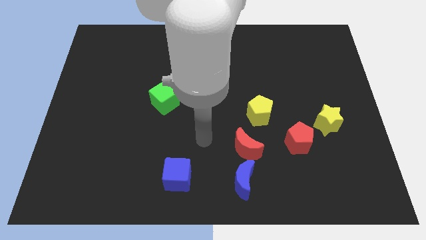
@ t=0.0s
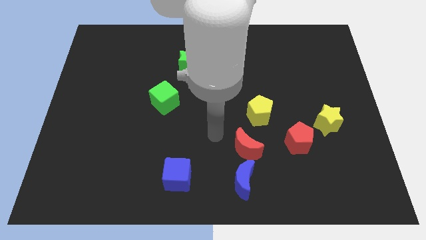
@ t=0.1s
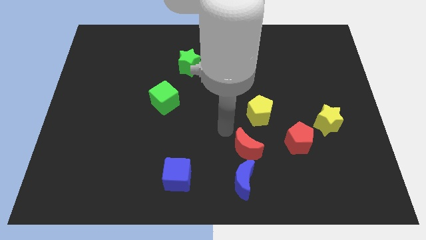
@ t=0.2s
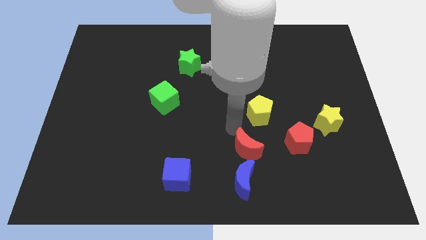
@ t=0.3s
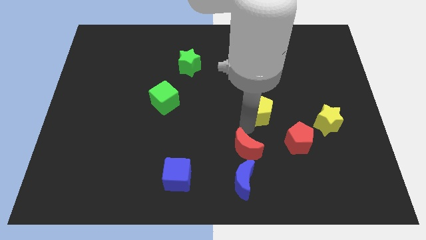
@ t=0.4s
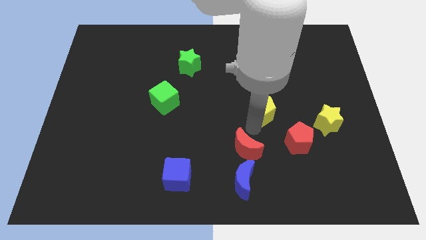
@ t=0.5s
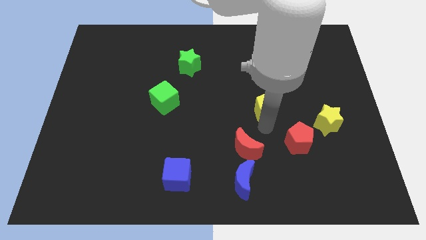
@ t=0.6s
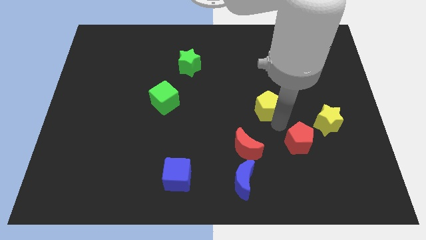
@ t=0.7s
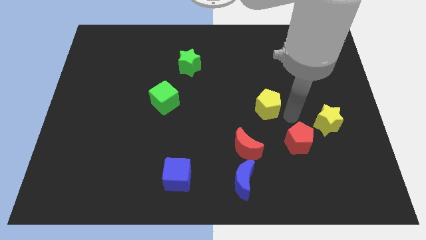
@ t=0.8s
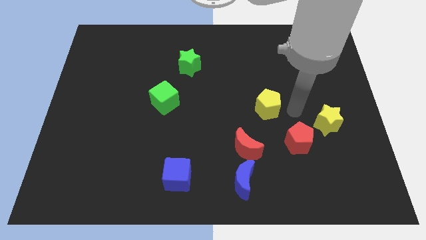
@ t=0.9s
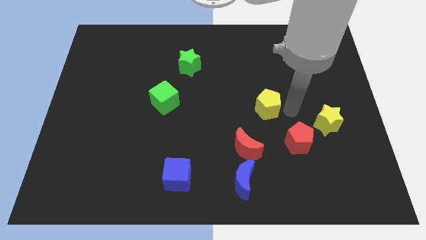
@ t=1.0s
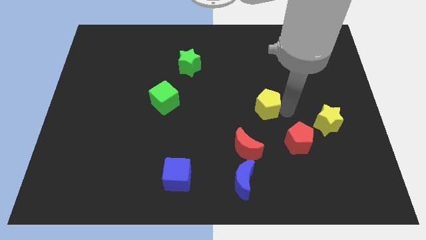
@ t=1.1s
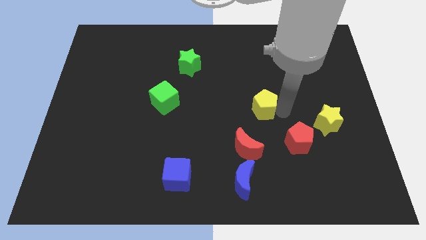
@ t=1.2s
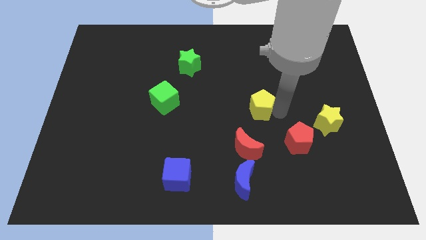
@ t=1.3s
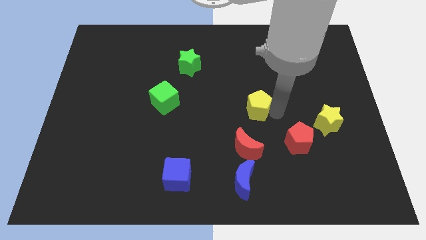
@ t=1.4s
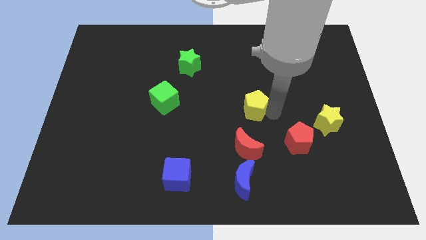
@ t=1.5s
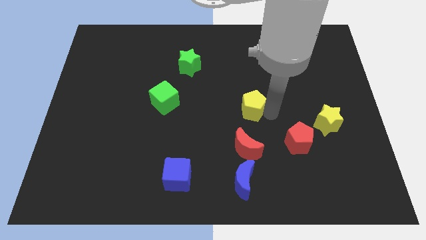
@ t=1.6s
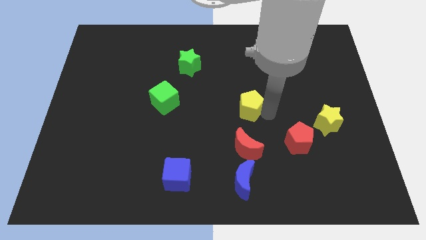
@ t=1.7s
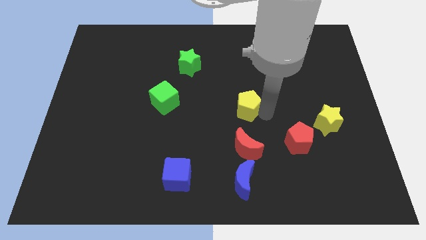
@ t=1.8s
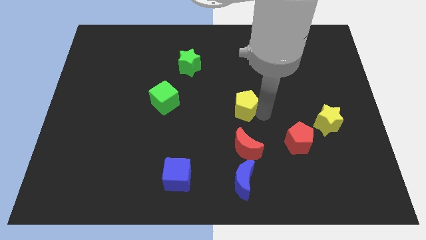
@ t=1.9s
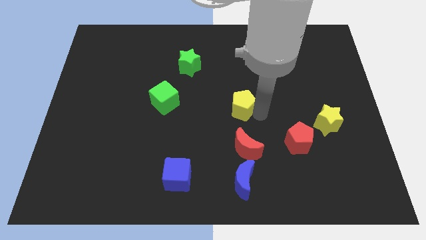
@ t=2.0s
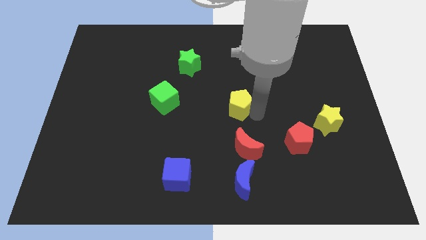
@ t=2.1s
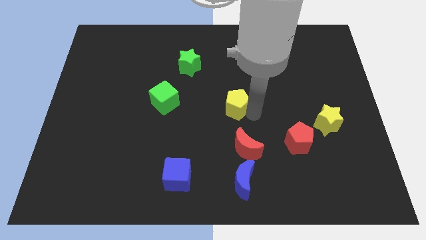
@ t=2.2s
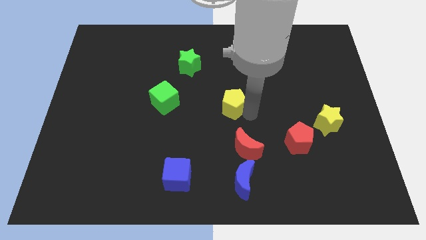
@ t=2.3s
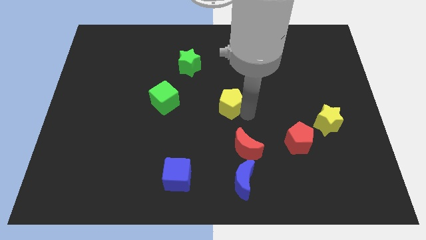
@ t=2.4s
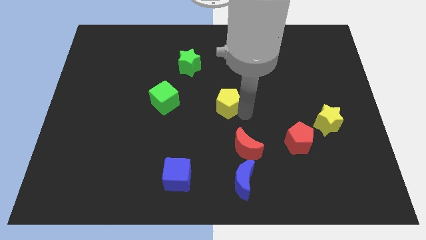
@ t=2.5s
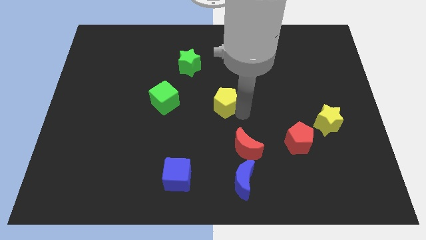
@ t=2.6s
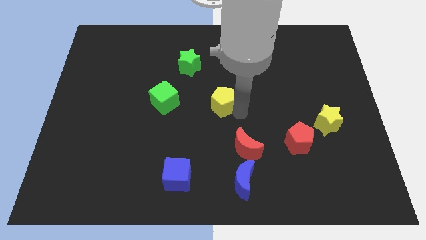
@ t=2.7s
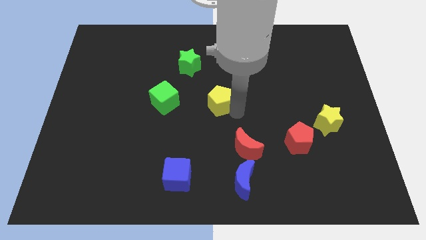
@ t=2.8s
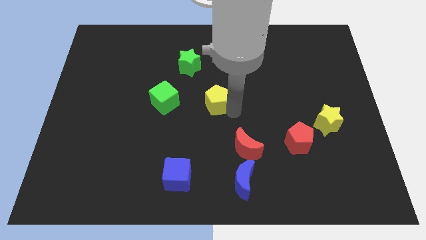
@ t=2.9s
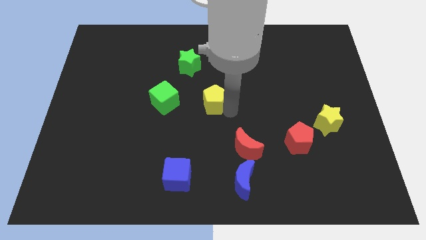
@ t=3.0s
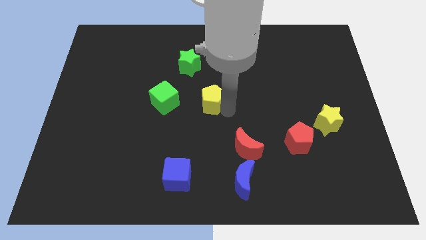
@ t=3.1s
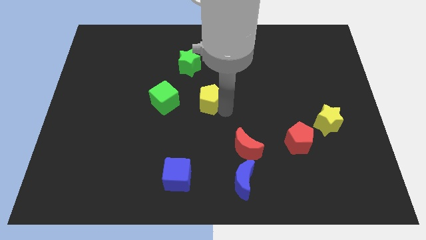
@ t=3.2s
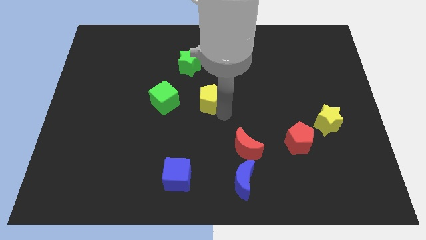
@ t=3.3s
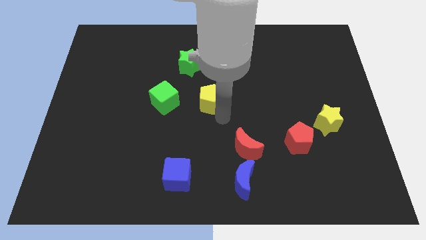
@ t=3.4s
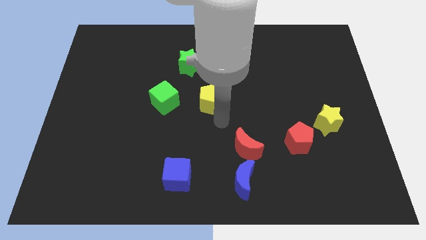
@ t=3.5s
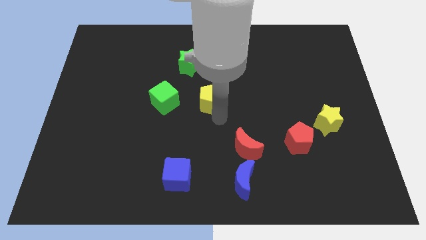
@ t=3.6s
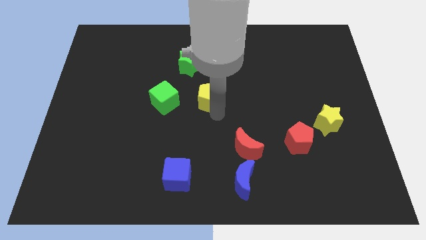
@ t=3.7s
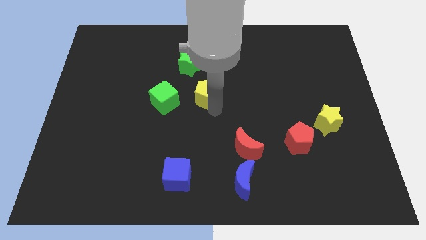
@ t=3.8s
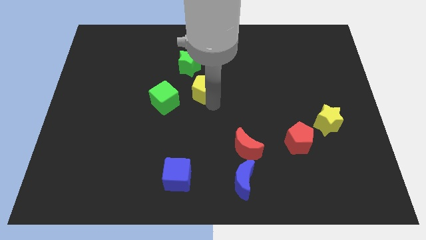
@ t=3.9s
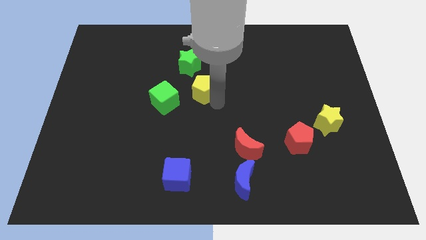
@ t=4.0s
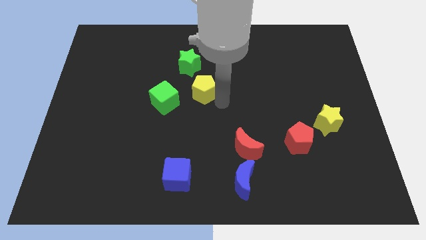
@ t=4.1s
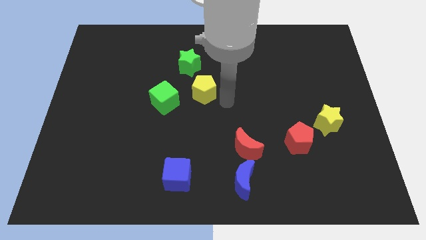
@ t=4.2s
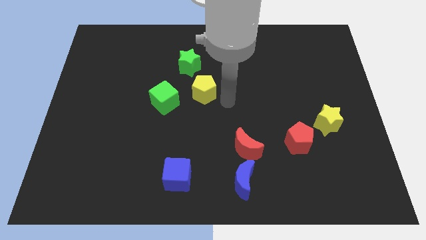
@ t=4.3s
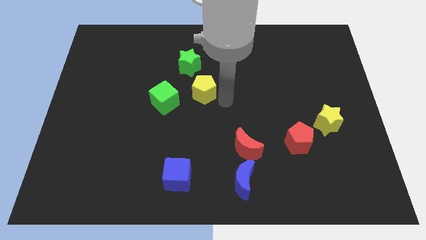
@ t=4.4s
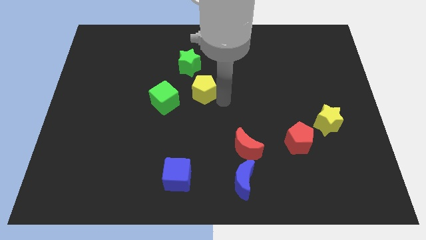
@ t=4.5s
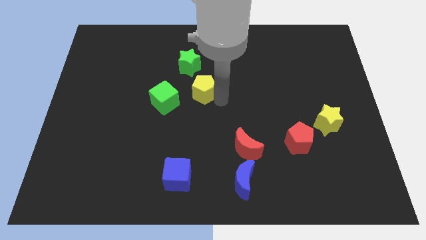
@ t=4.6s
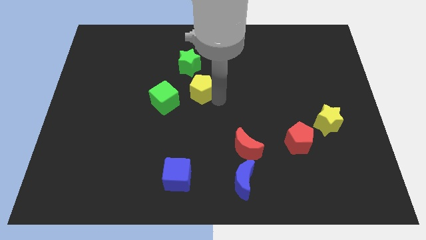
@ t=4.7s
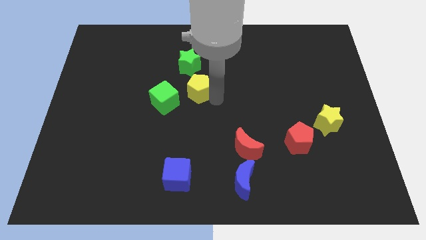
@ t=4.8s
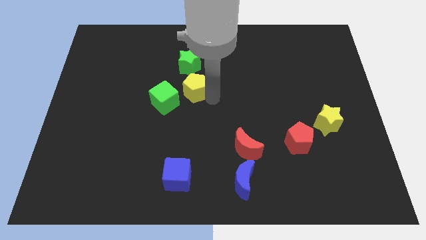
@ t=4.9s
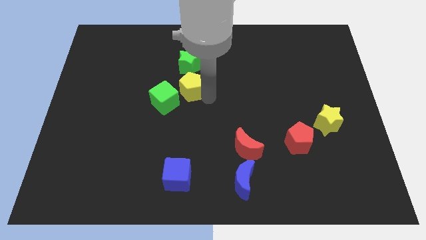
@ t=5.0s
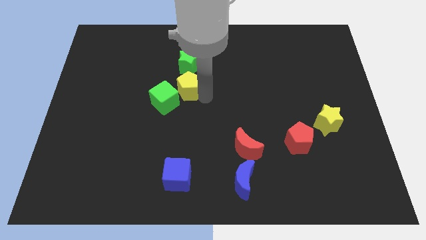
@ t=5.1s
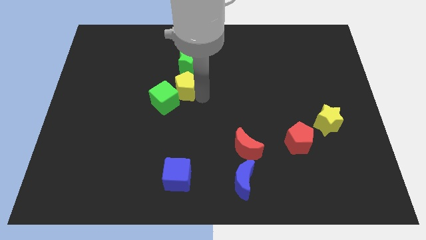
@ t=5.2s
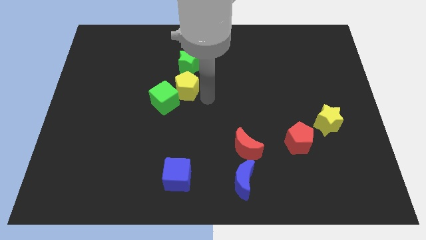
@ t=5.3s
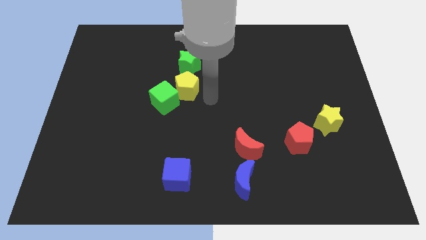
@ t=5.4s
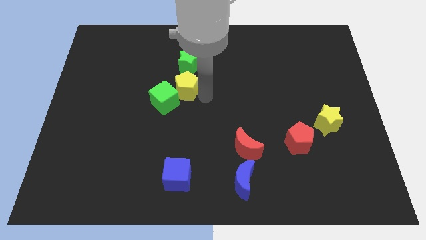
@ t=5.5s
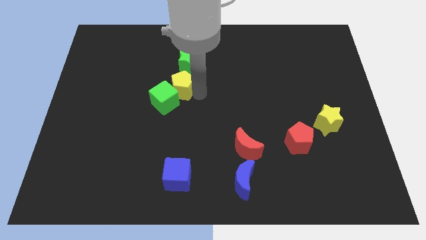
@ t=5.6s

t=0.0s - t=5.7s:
slide the yellow pentagon to the bottom left of the green star

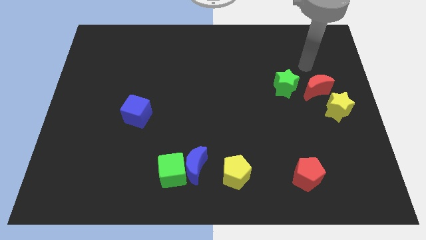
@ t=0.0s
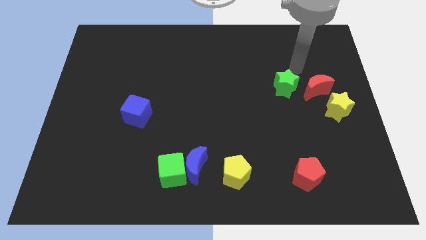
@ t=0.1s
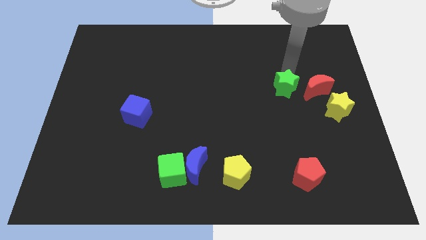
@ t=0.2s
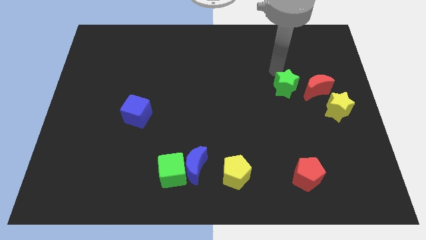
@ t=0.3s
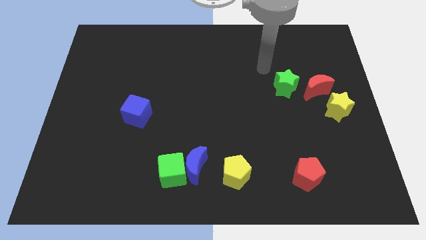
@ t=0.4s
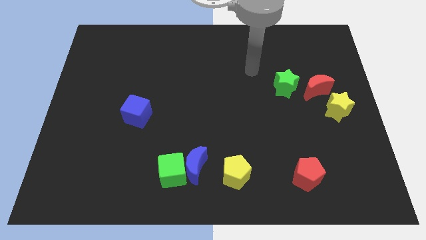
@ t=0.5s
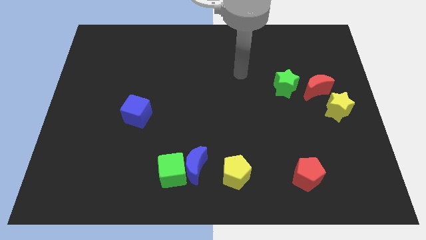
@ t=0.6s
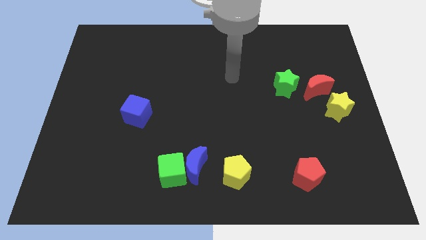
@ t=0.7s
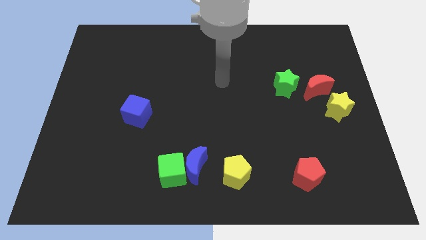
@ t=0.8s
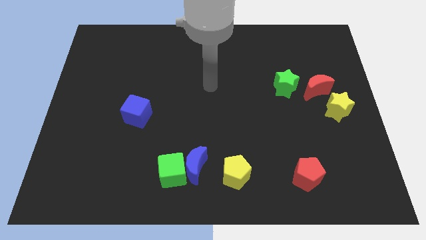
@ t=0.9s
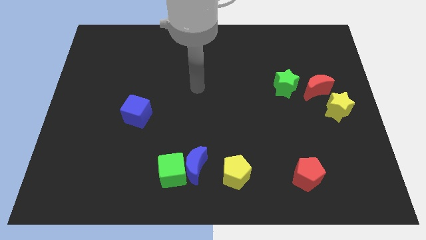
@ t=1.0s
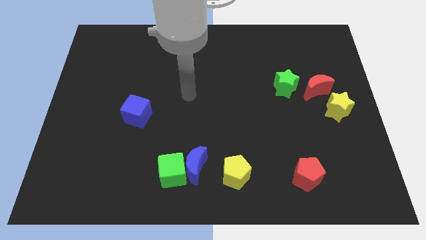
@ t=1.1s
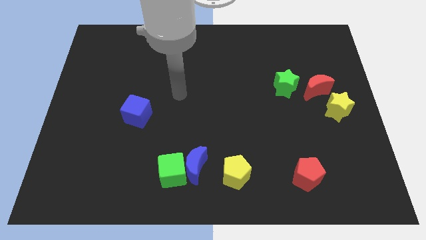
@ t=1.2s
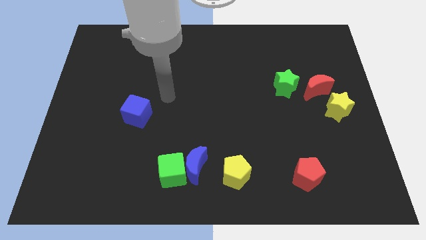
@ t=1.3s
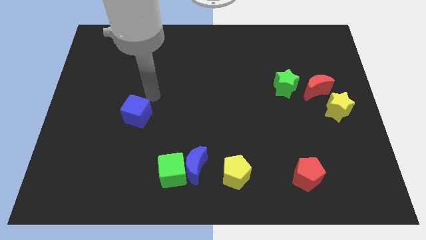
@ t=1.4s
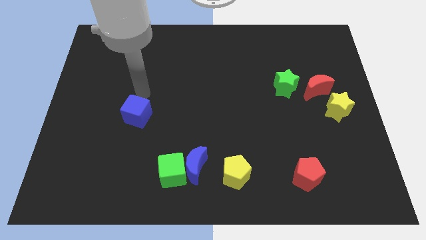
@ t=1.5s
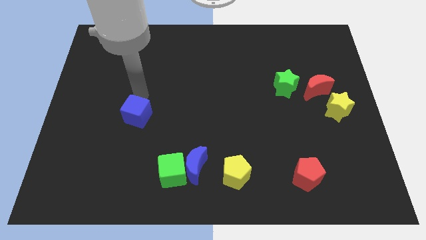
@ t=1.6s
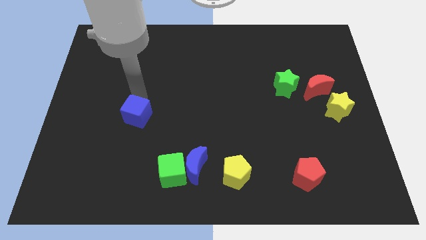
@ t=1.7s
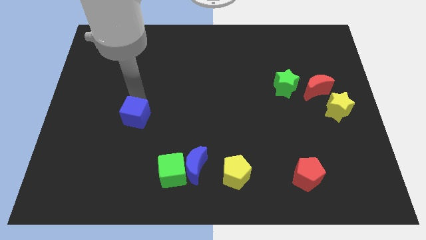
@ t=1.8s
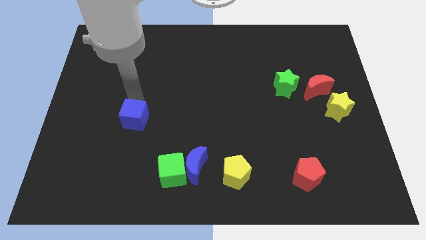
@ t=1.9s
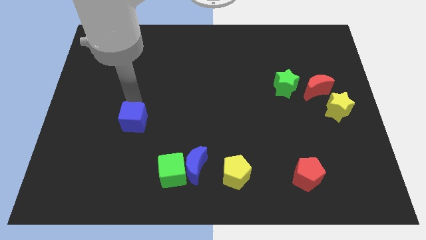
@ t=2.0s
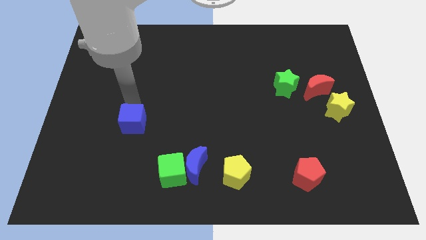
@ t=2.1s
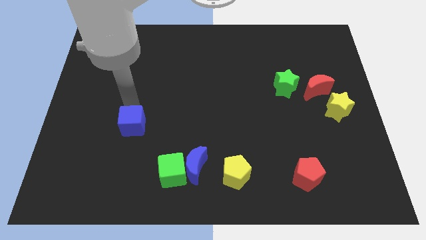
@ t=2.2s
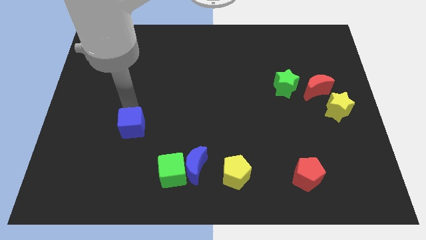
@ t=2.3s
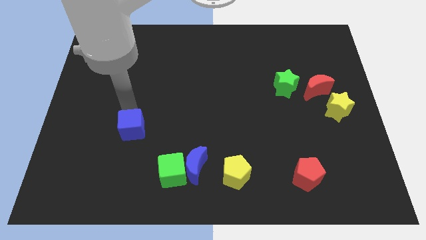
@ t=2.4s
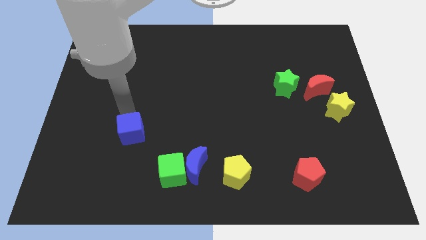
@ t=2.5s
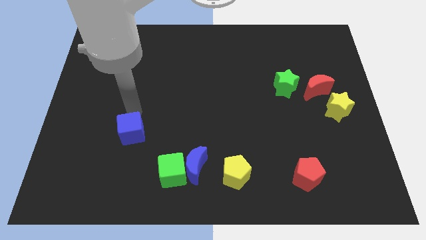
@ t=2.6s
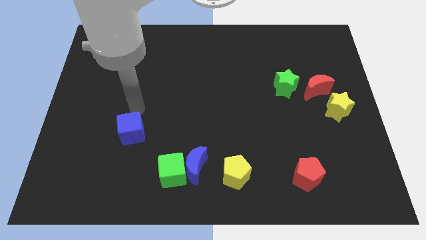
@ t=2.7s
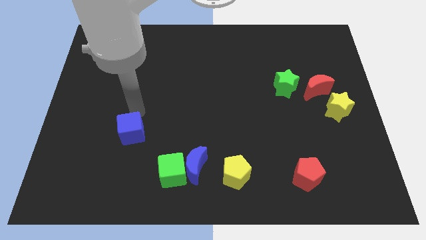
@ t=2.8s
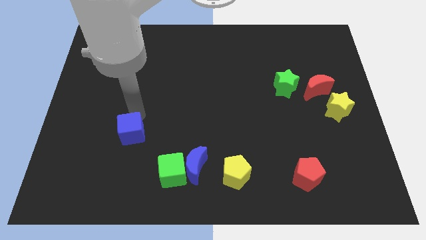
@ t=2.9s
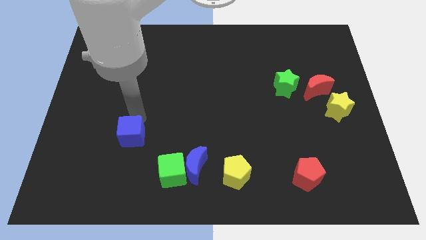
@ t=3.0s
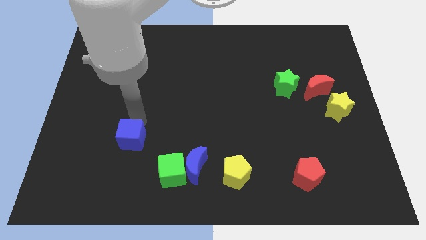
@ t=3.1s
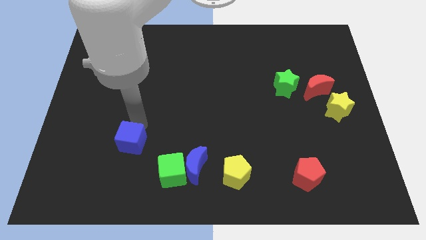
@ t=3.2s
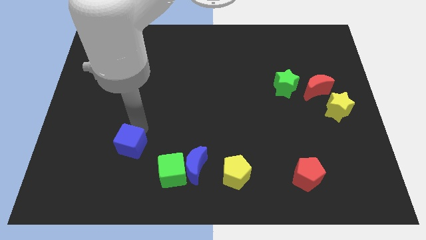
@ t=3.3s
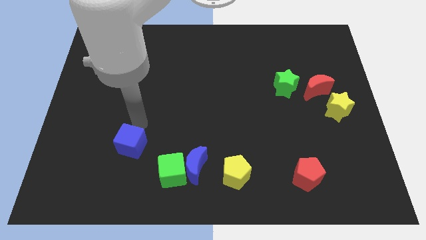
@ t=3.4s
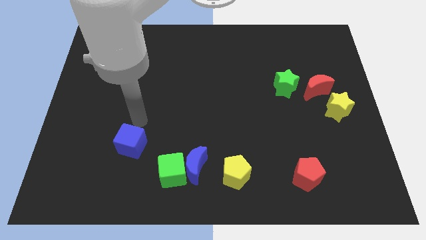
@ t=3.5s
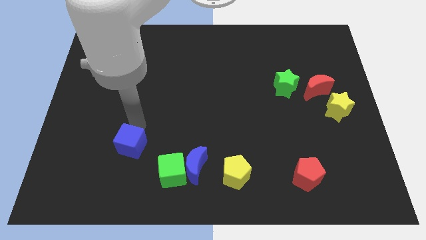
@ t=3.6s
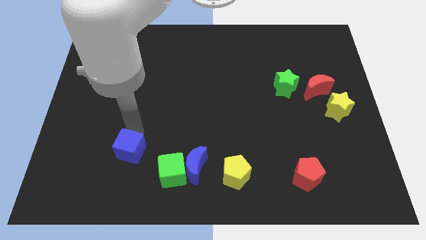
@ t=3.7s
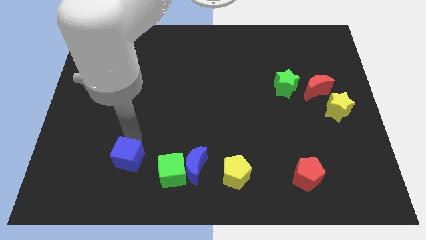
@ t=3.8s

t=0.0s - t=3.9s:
put the blue cube to the left of the green cube
